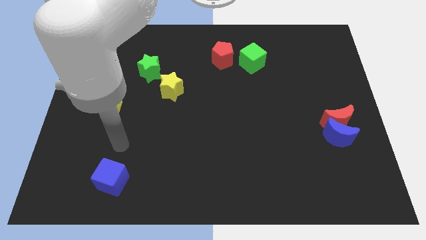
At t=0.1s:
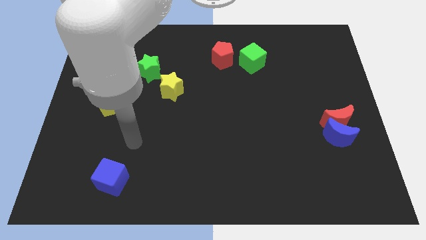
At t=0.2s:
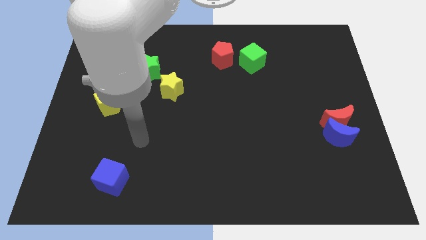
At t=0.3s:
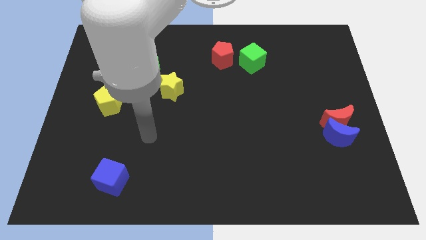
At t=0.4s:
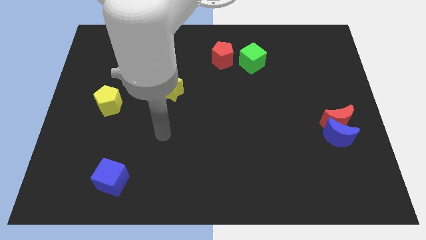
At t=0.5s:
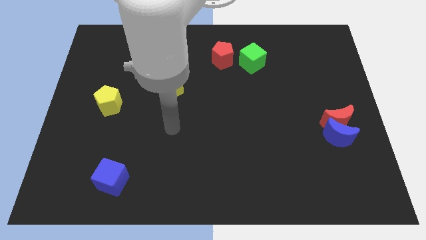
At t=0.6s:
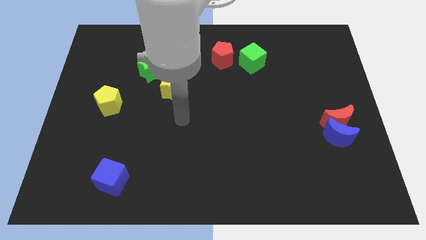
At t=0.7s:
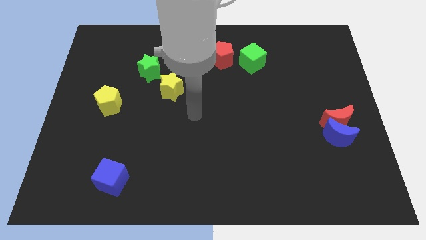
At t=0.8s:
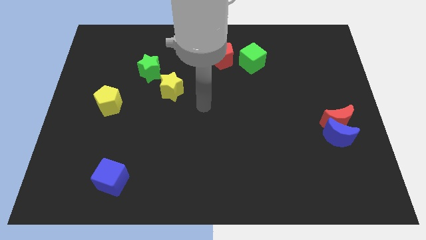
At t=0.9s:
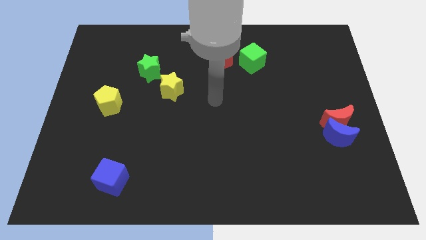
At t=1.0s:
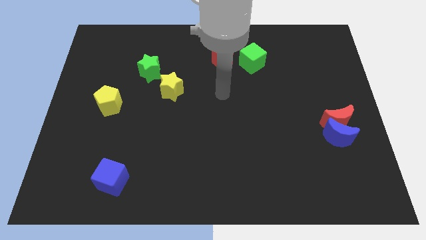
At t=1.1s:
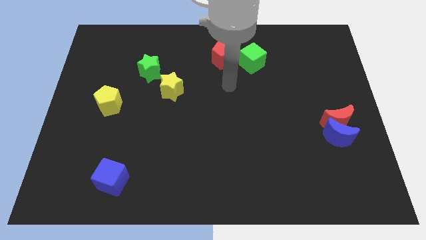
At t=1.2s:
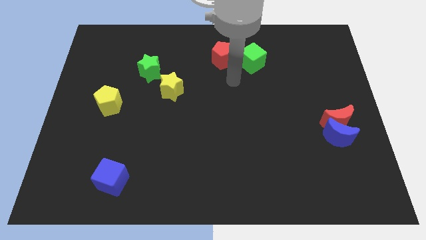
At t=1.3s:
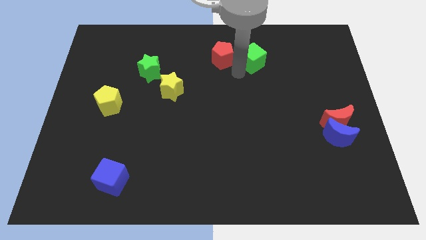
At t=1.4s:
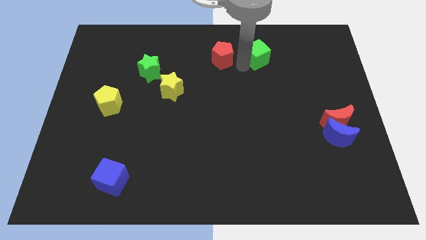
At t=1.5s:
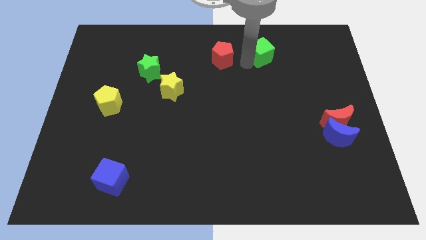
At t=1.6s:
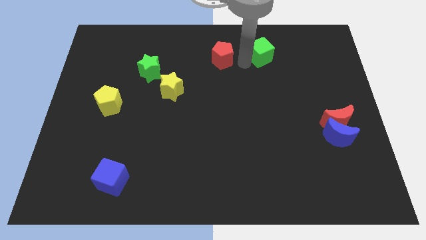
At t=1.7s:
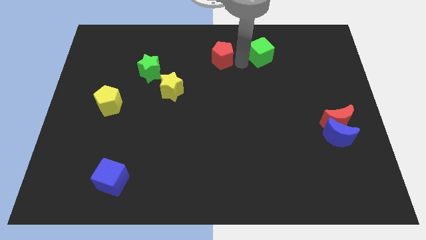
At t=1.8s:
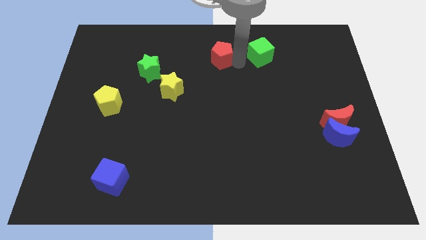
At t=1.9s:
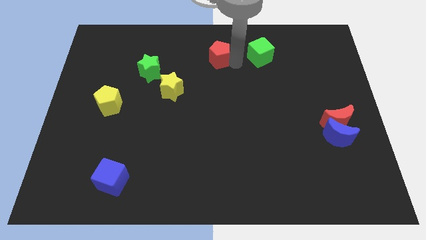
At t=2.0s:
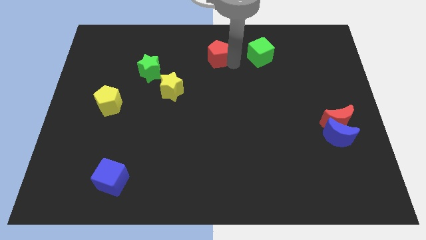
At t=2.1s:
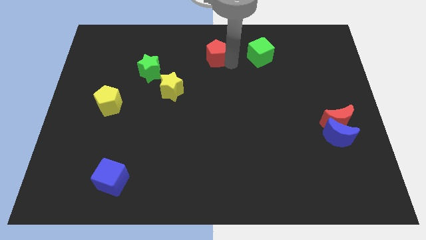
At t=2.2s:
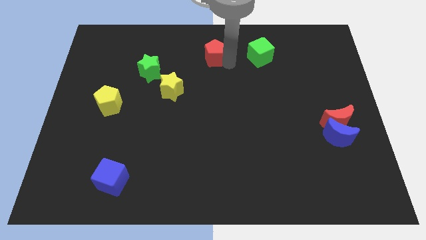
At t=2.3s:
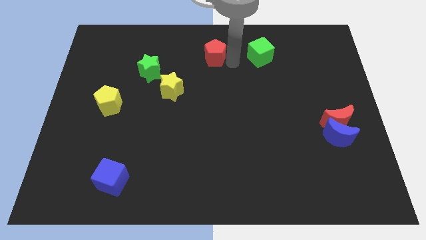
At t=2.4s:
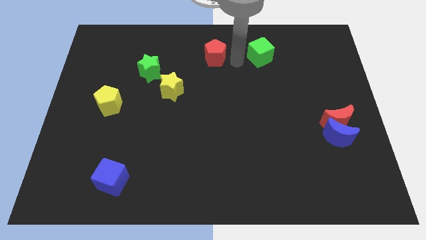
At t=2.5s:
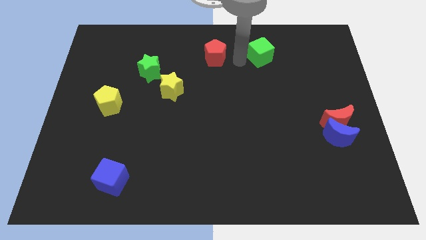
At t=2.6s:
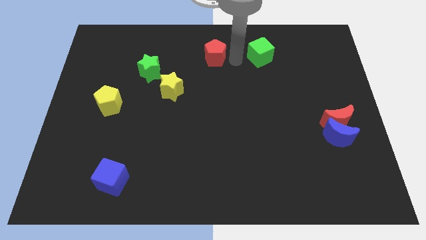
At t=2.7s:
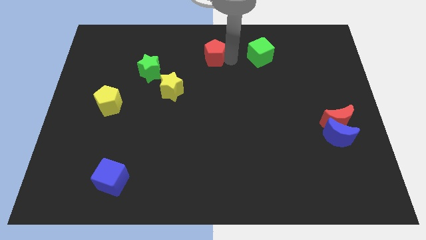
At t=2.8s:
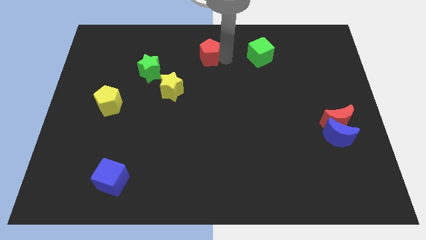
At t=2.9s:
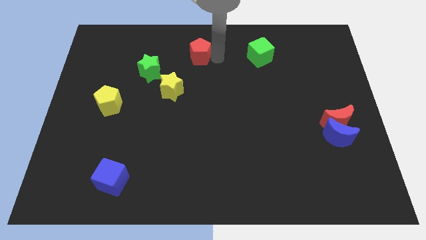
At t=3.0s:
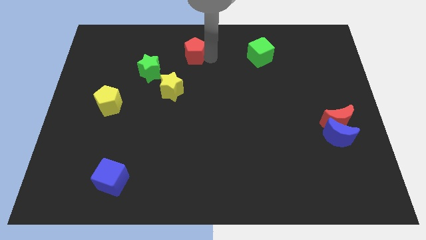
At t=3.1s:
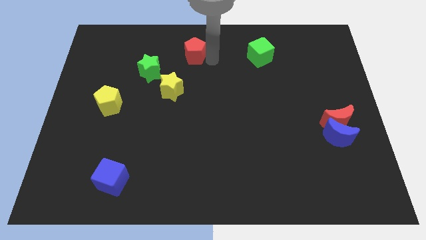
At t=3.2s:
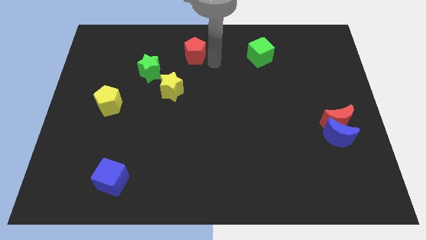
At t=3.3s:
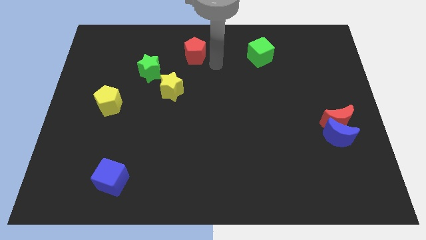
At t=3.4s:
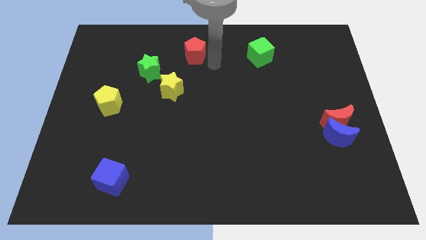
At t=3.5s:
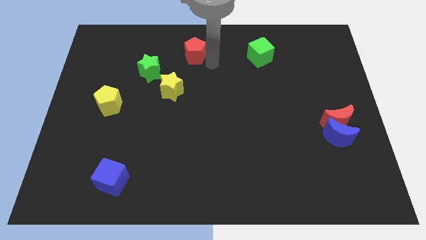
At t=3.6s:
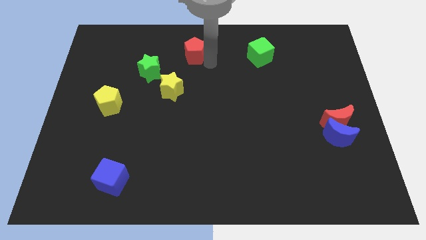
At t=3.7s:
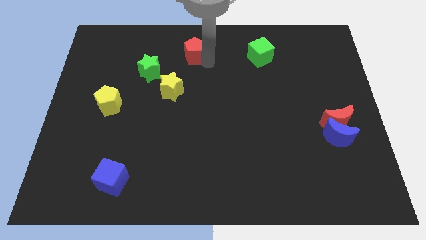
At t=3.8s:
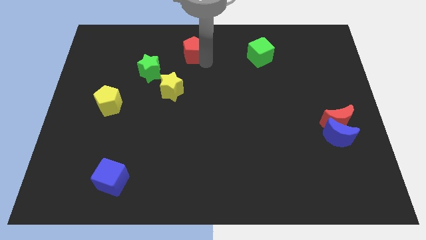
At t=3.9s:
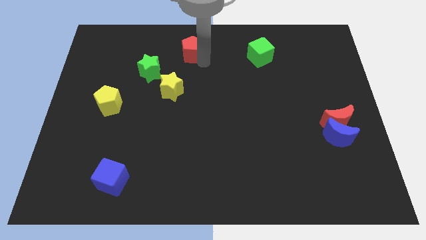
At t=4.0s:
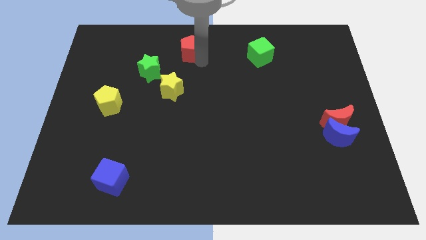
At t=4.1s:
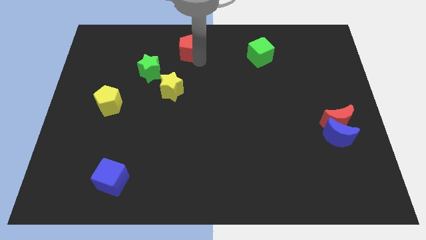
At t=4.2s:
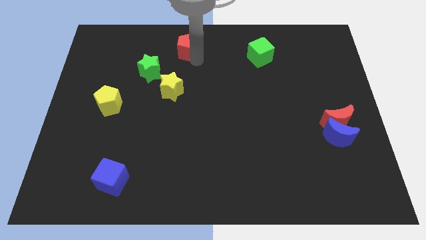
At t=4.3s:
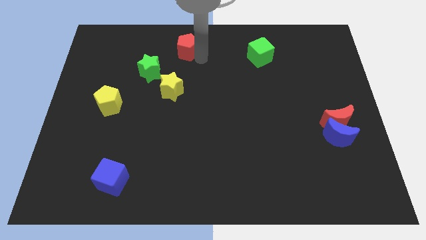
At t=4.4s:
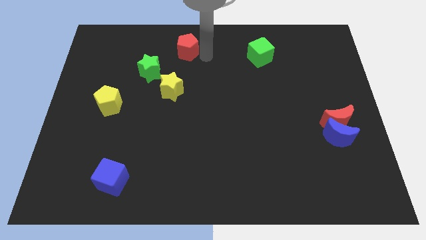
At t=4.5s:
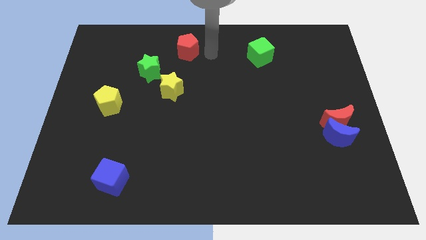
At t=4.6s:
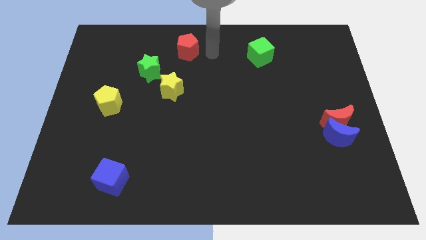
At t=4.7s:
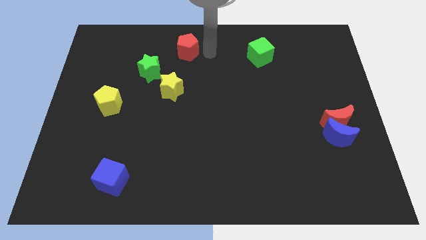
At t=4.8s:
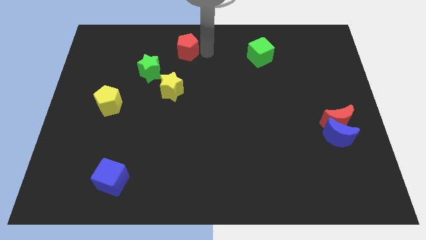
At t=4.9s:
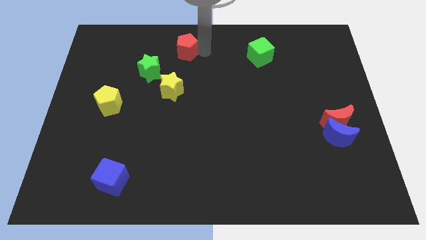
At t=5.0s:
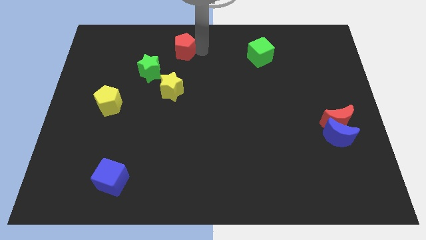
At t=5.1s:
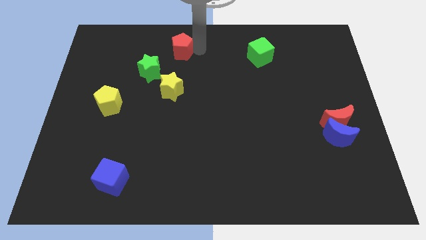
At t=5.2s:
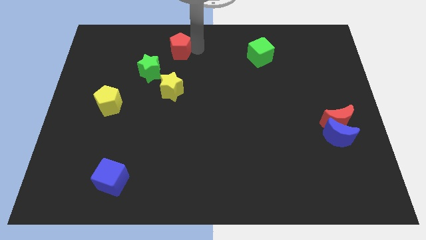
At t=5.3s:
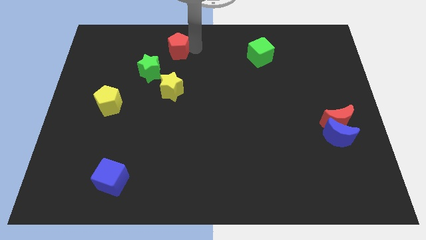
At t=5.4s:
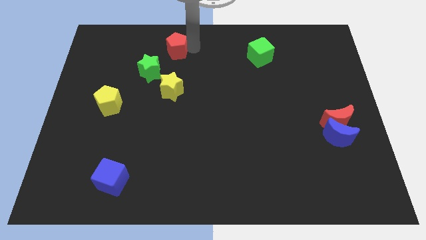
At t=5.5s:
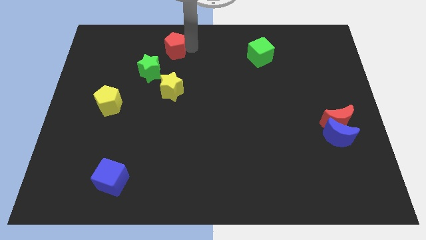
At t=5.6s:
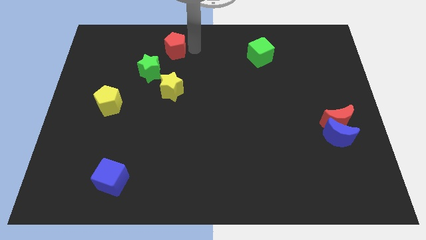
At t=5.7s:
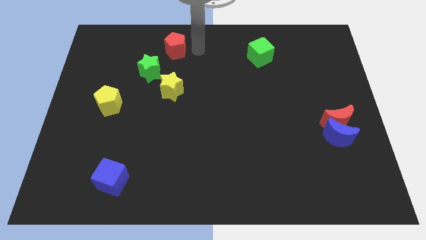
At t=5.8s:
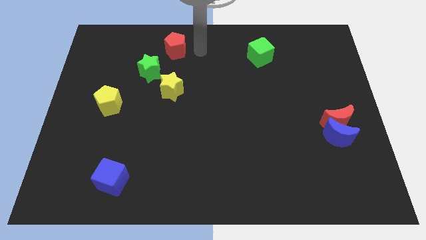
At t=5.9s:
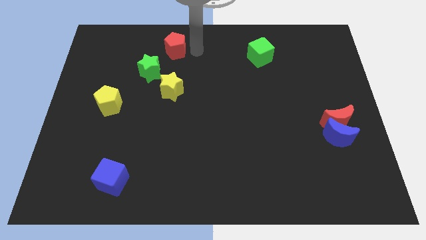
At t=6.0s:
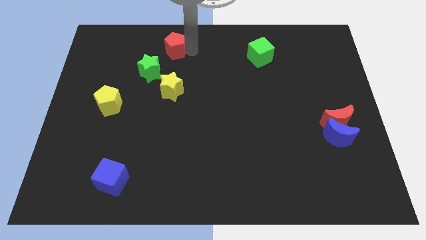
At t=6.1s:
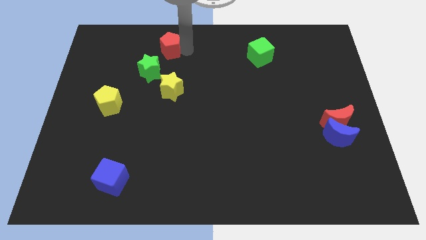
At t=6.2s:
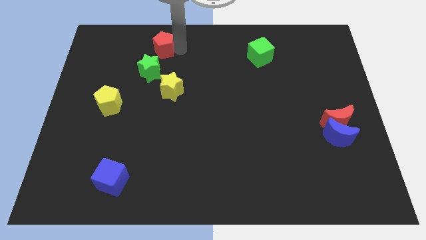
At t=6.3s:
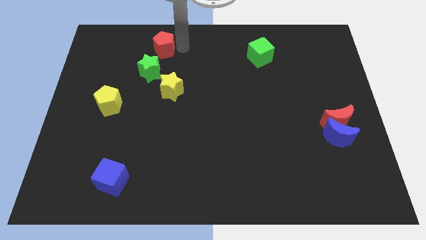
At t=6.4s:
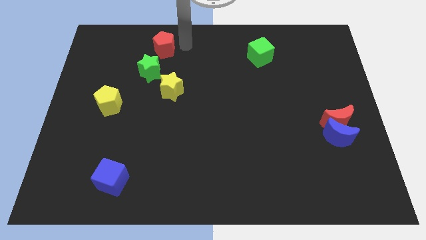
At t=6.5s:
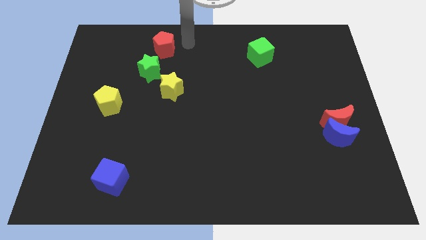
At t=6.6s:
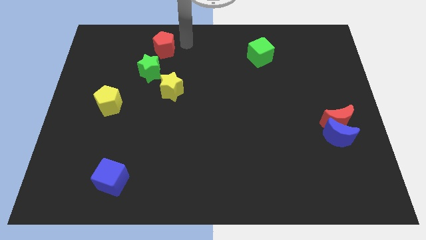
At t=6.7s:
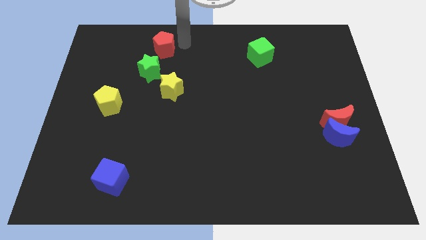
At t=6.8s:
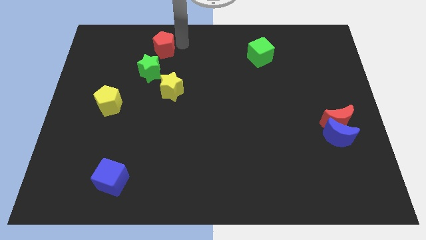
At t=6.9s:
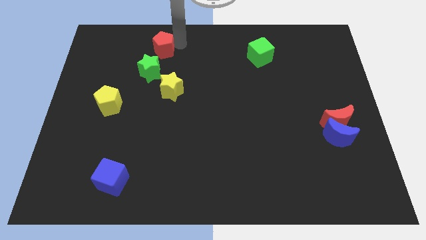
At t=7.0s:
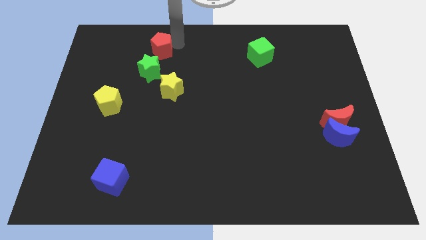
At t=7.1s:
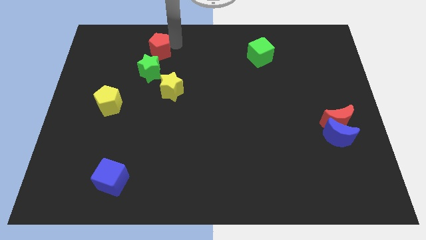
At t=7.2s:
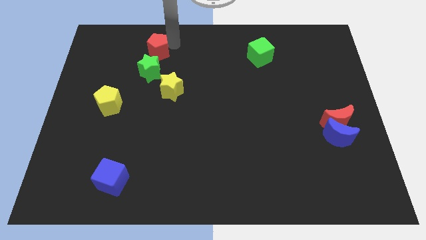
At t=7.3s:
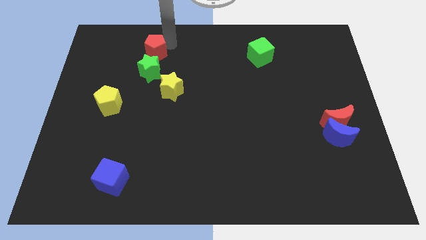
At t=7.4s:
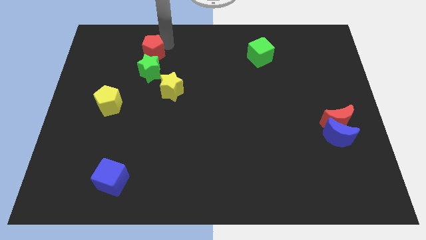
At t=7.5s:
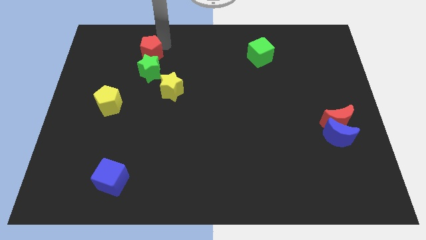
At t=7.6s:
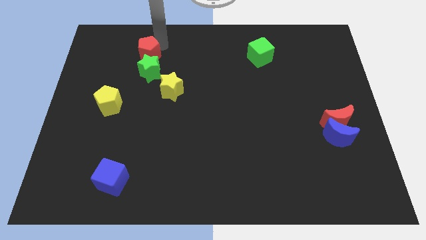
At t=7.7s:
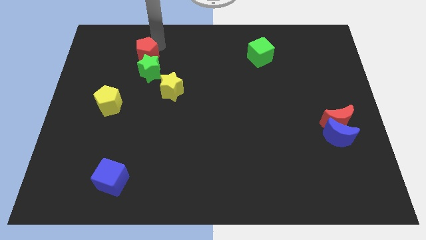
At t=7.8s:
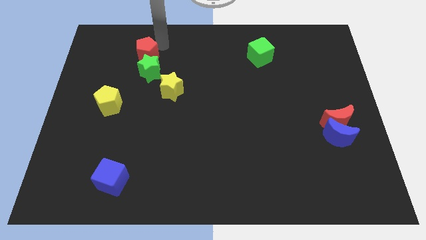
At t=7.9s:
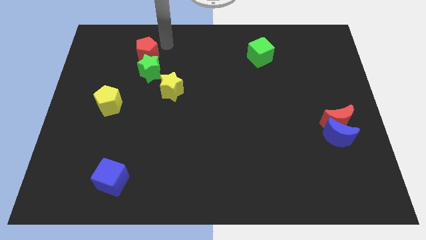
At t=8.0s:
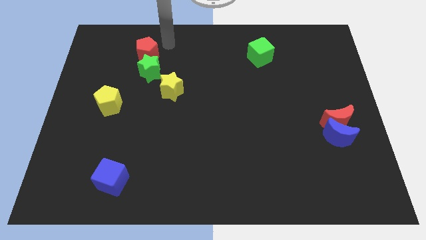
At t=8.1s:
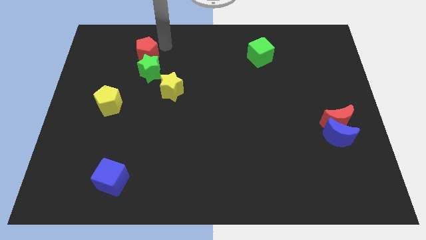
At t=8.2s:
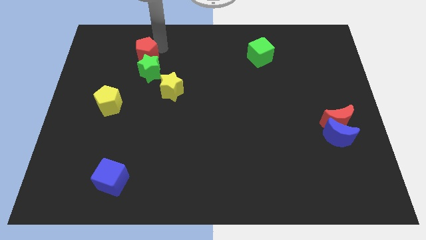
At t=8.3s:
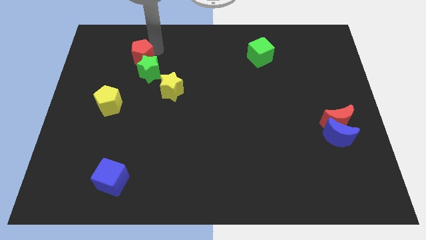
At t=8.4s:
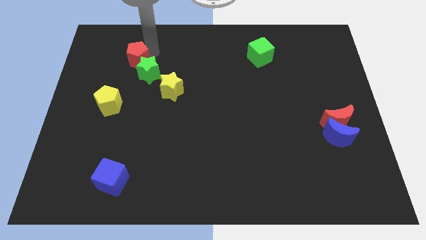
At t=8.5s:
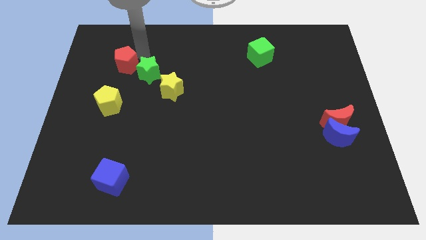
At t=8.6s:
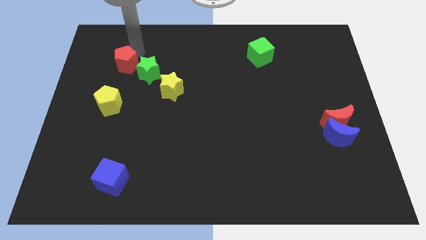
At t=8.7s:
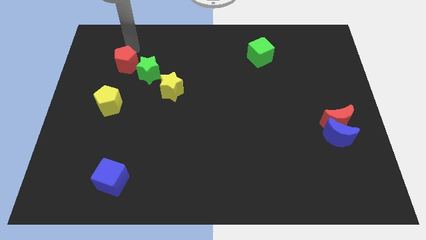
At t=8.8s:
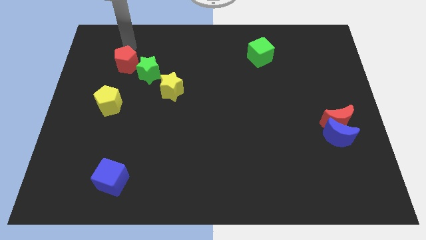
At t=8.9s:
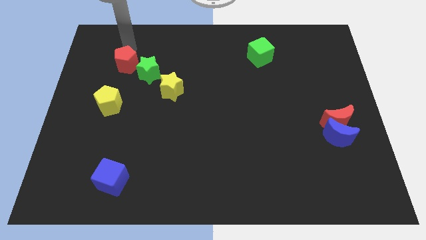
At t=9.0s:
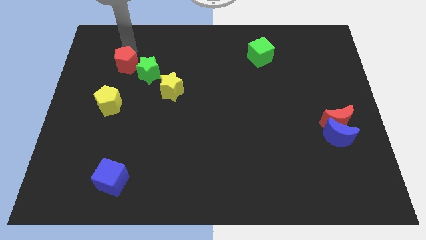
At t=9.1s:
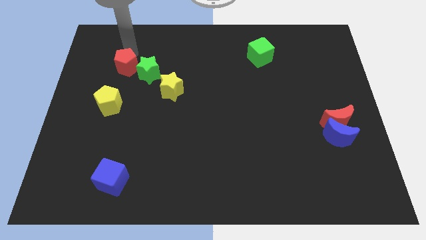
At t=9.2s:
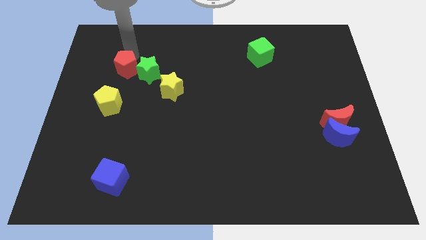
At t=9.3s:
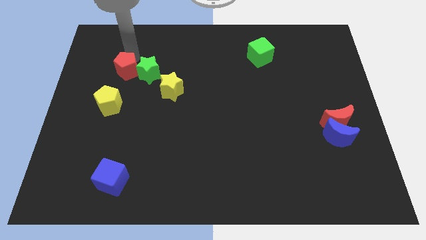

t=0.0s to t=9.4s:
push the red pentagon to the bottom left of the green star
